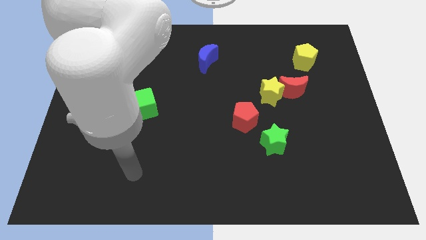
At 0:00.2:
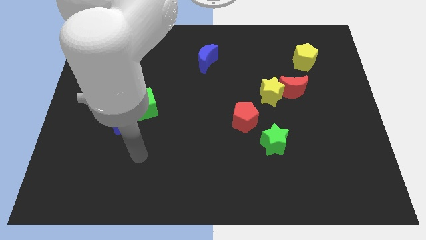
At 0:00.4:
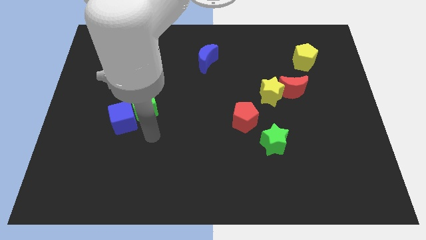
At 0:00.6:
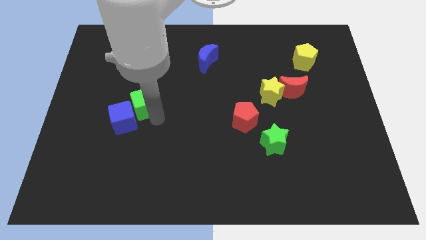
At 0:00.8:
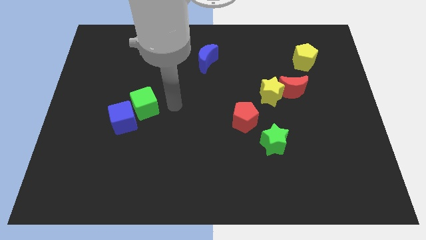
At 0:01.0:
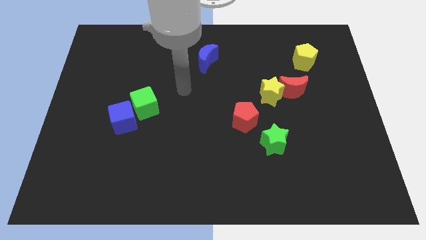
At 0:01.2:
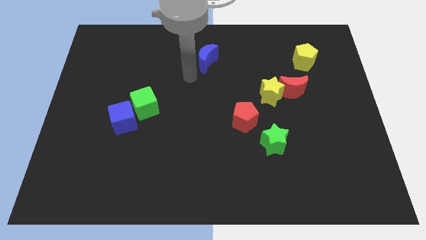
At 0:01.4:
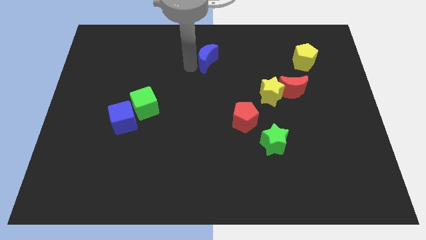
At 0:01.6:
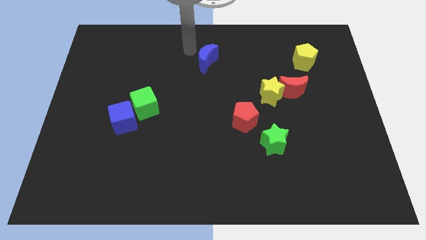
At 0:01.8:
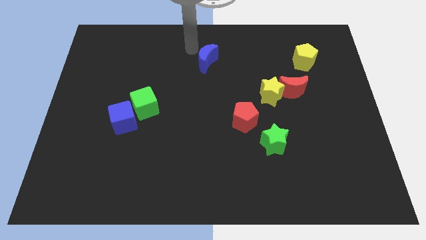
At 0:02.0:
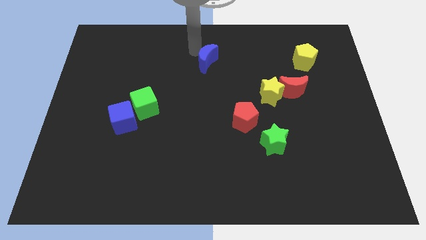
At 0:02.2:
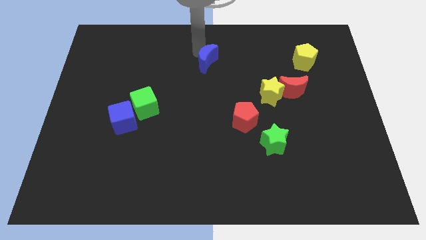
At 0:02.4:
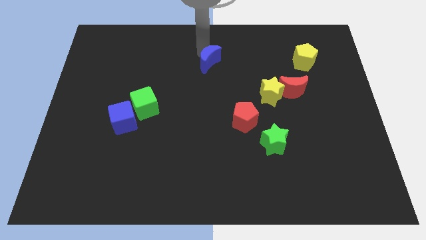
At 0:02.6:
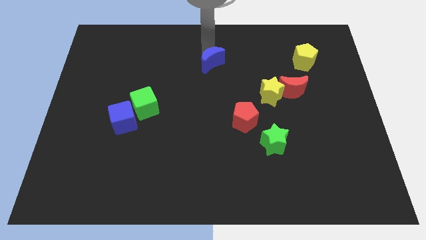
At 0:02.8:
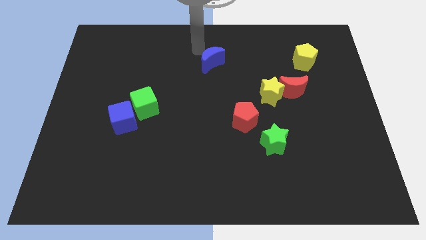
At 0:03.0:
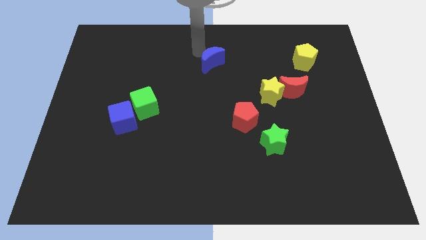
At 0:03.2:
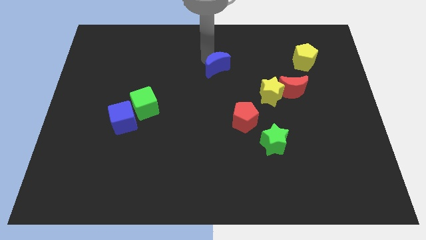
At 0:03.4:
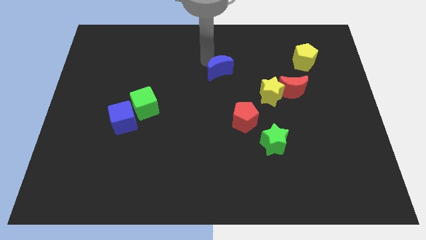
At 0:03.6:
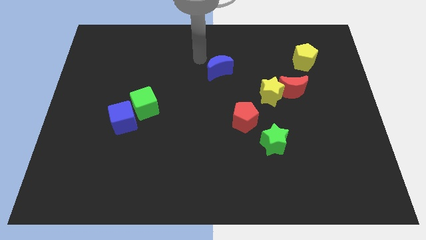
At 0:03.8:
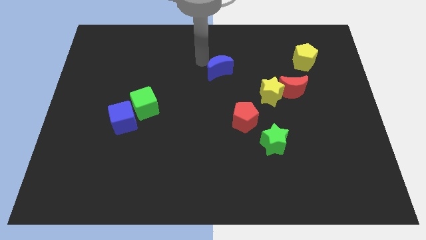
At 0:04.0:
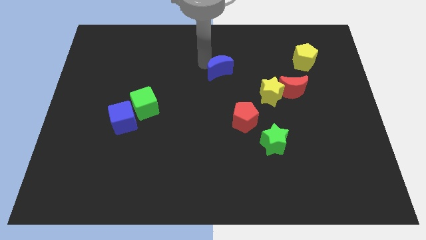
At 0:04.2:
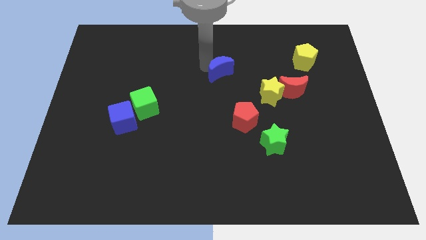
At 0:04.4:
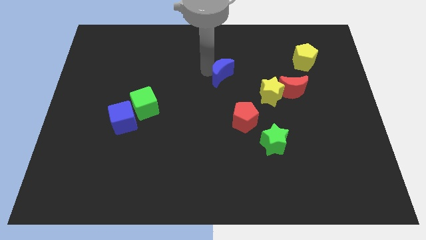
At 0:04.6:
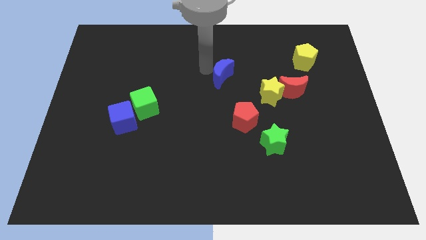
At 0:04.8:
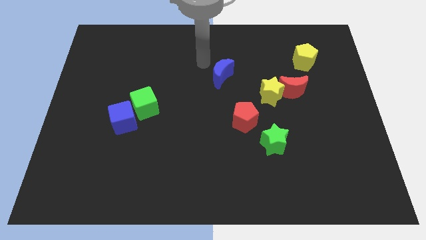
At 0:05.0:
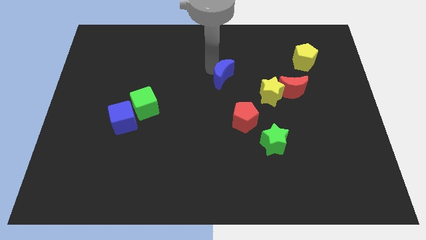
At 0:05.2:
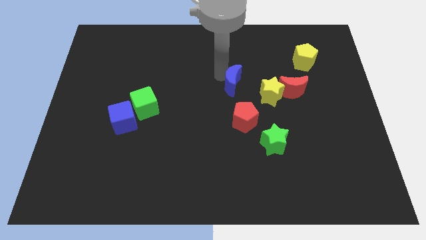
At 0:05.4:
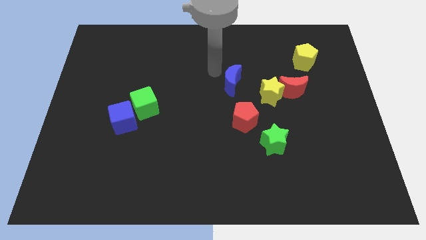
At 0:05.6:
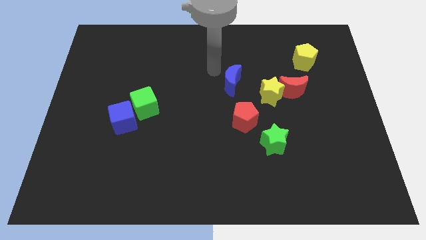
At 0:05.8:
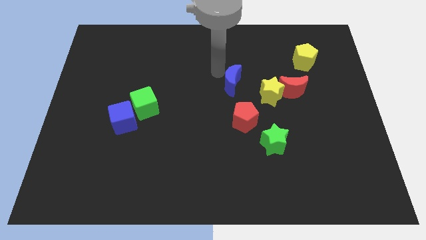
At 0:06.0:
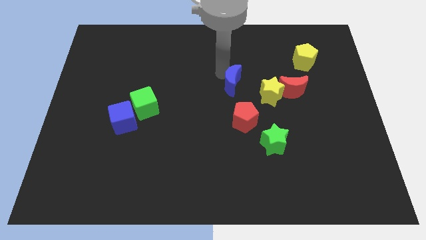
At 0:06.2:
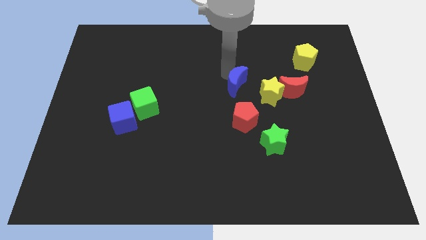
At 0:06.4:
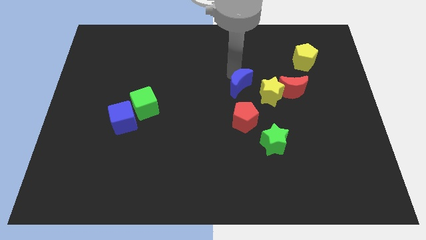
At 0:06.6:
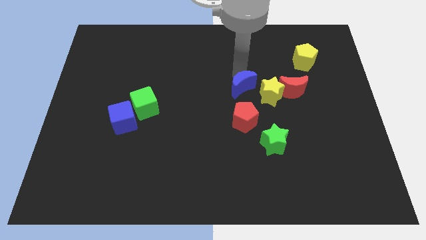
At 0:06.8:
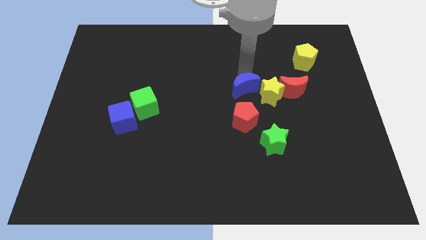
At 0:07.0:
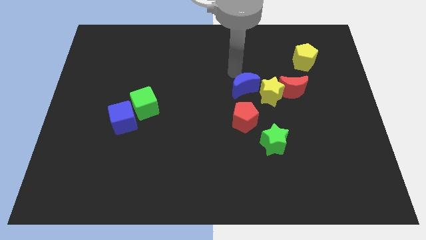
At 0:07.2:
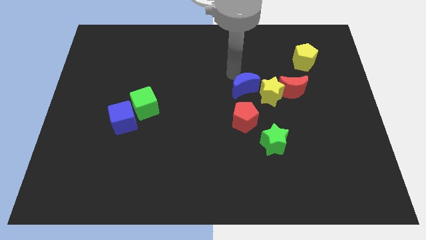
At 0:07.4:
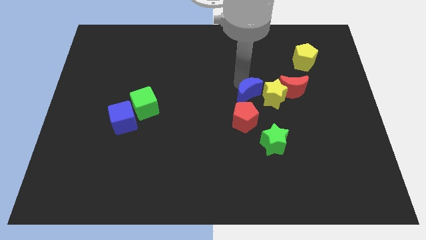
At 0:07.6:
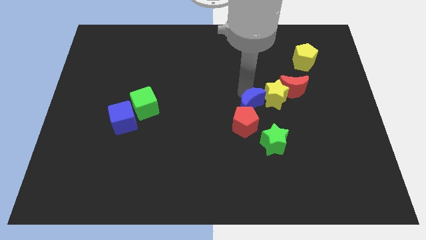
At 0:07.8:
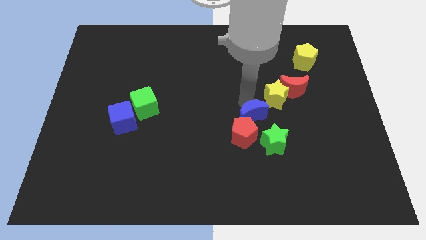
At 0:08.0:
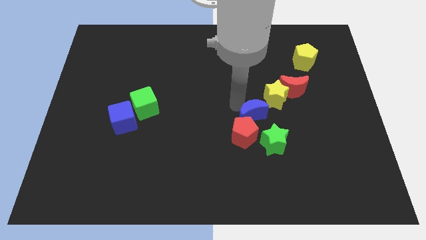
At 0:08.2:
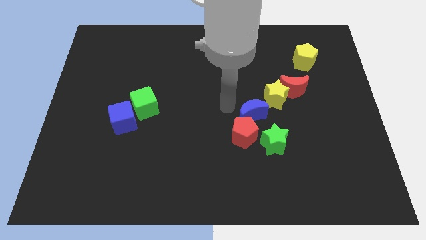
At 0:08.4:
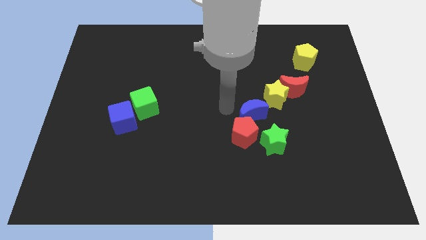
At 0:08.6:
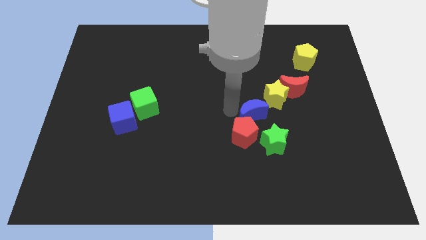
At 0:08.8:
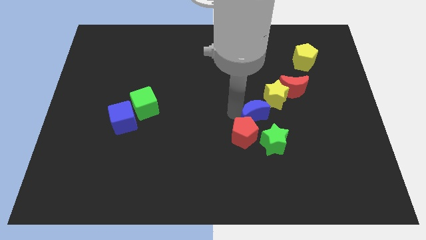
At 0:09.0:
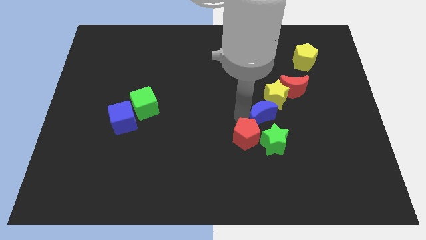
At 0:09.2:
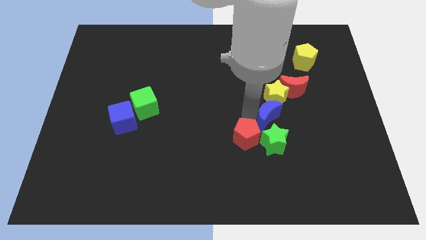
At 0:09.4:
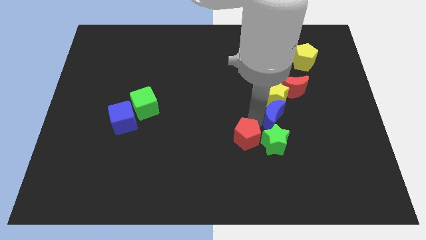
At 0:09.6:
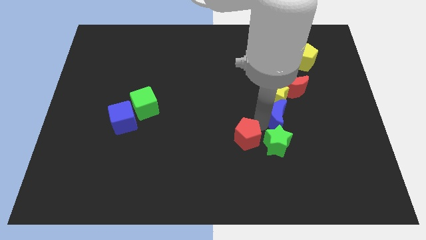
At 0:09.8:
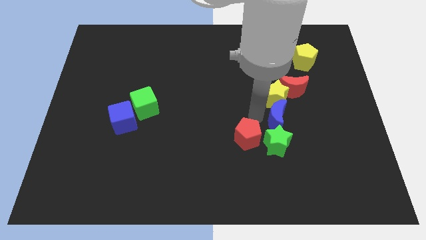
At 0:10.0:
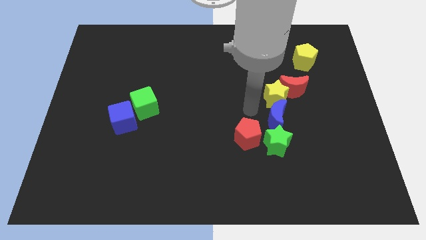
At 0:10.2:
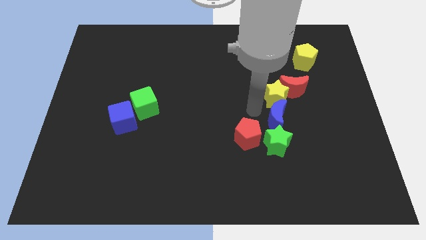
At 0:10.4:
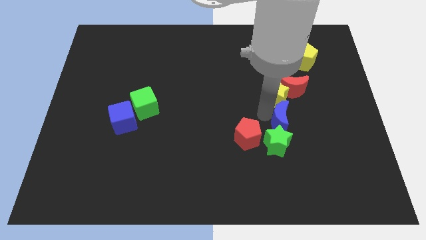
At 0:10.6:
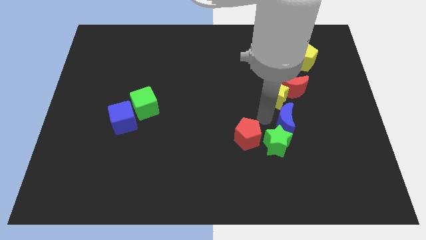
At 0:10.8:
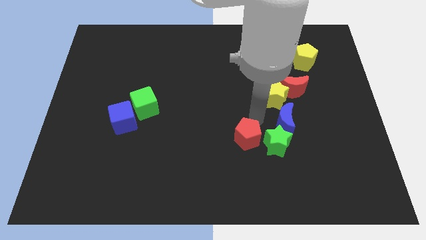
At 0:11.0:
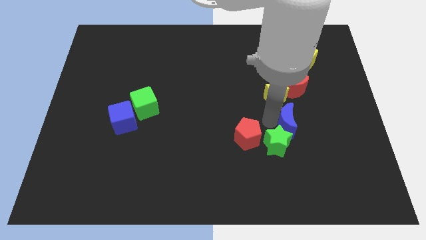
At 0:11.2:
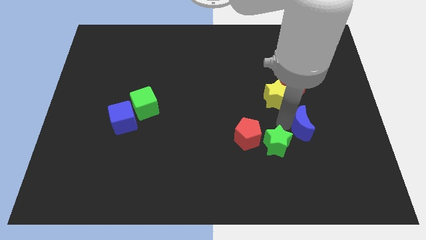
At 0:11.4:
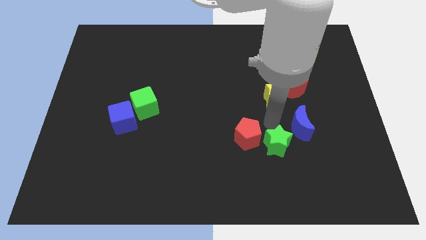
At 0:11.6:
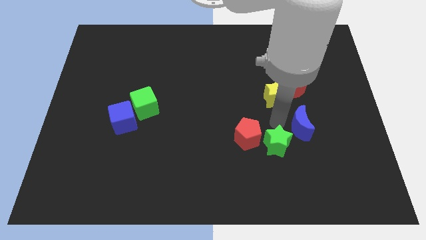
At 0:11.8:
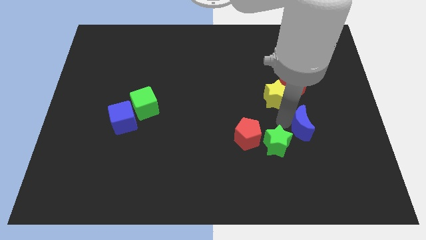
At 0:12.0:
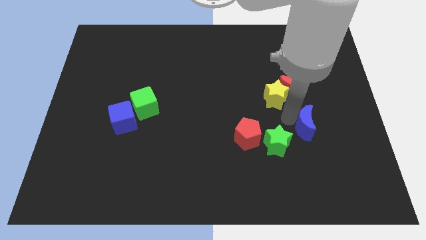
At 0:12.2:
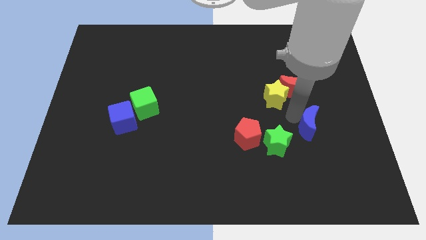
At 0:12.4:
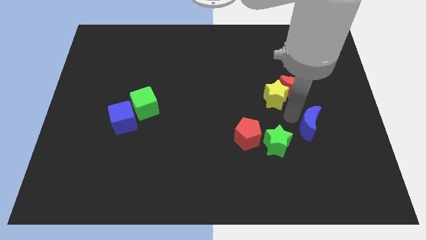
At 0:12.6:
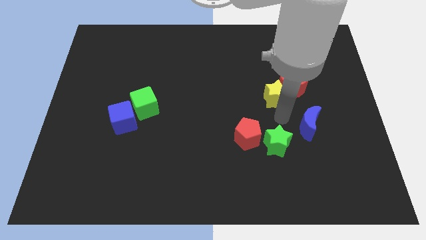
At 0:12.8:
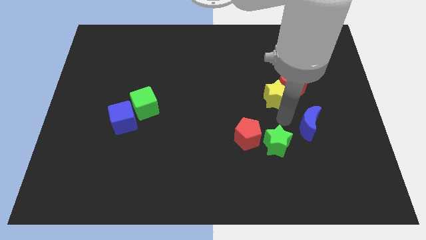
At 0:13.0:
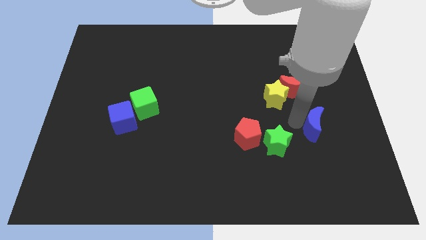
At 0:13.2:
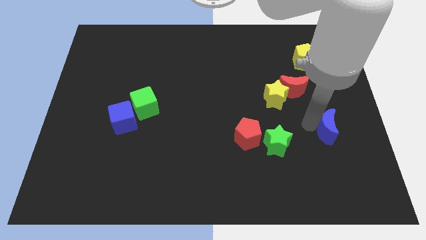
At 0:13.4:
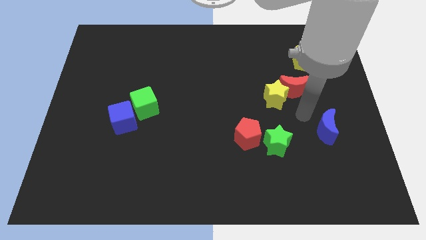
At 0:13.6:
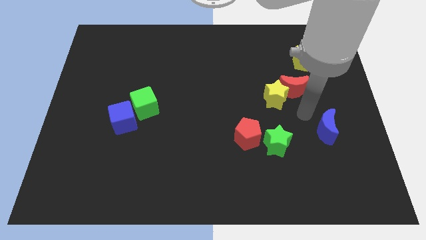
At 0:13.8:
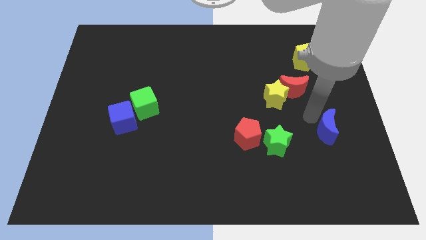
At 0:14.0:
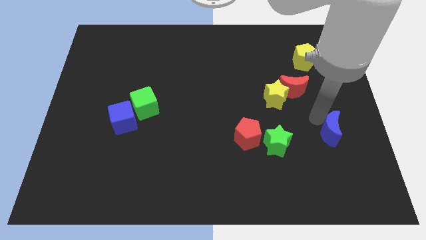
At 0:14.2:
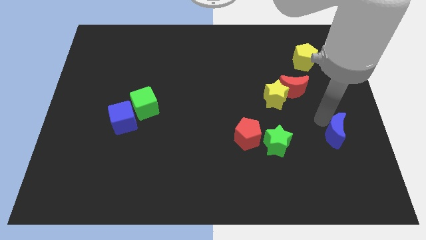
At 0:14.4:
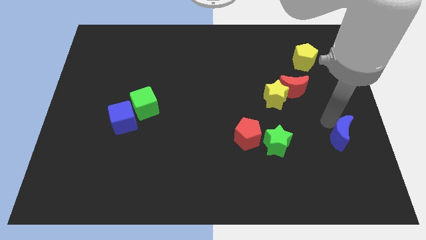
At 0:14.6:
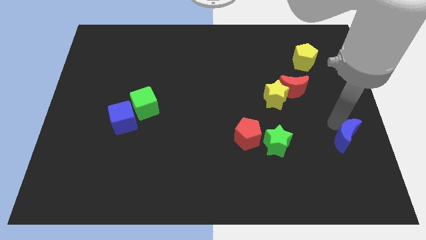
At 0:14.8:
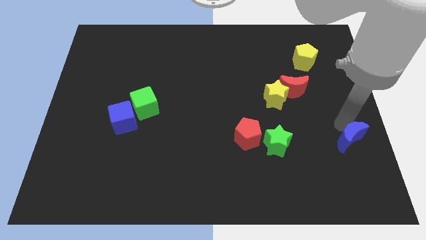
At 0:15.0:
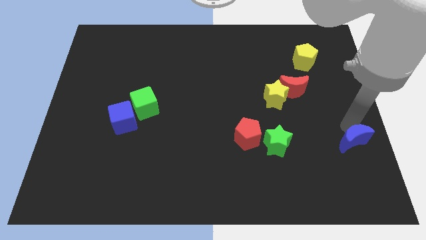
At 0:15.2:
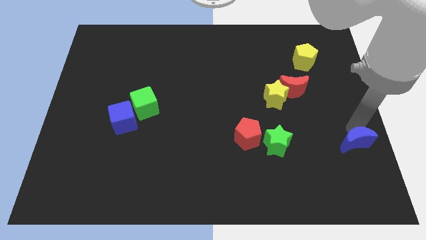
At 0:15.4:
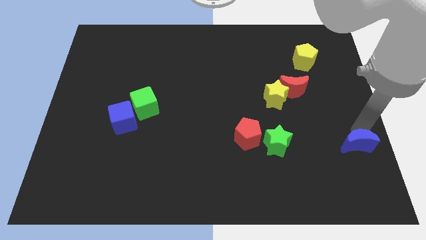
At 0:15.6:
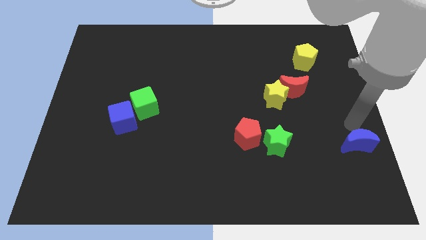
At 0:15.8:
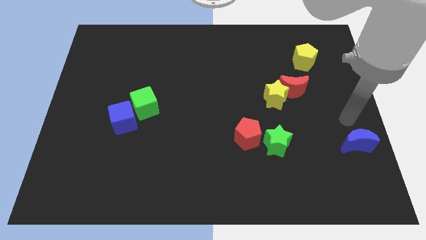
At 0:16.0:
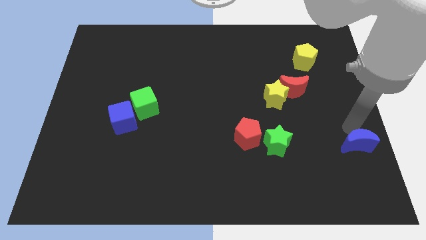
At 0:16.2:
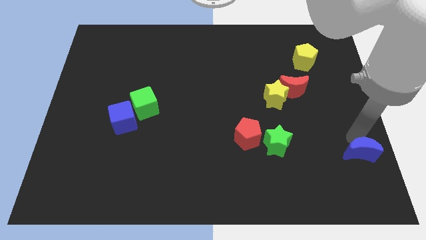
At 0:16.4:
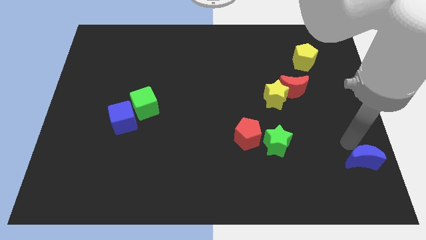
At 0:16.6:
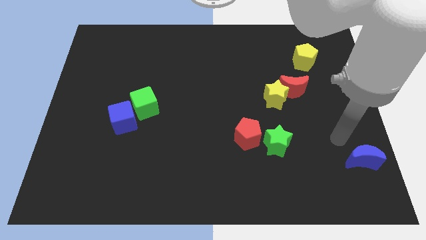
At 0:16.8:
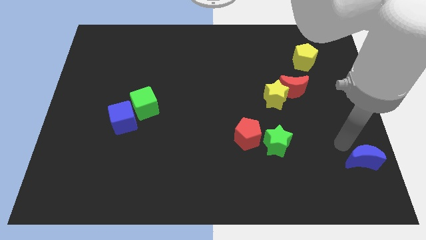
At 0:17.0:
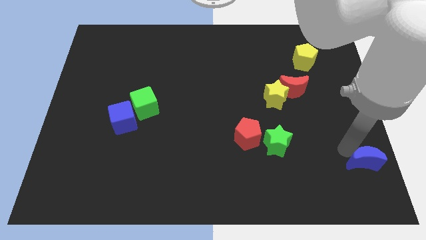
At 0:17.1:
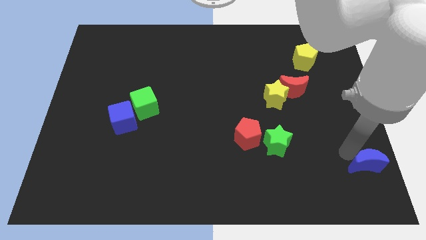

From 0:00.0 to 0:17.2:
put the blue moon to the lower right corner
